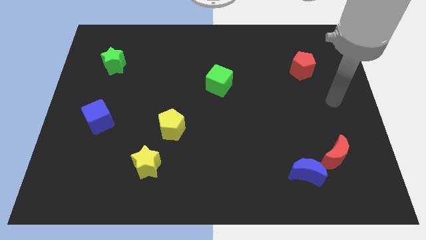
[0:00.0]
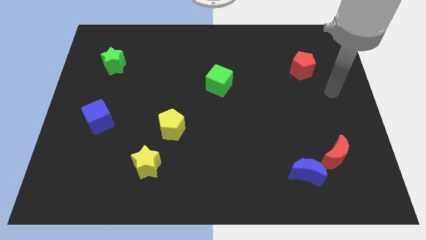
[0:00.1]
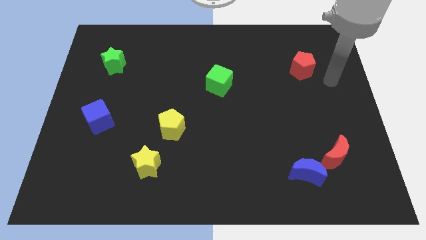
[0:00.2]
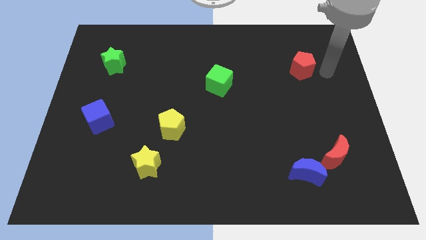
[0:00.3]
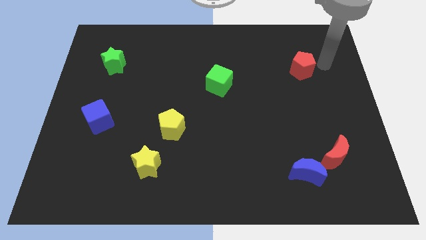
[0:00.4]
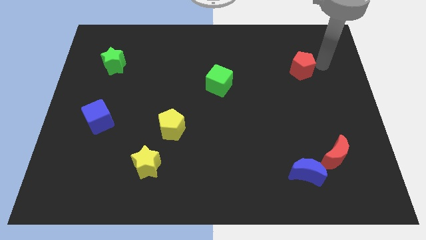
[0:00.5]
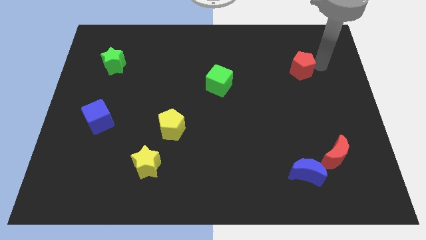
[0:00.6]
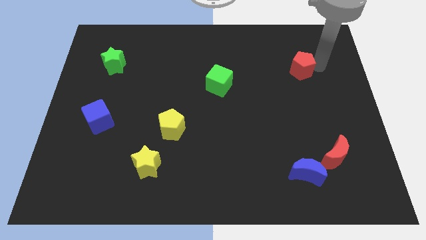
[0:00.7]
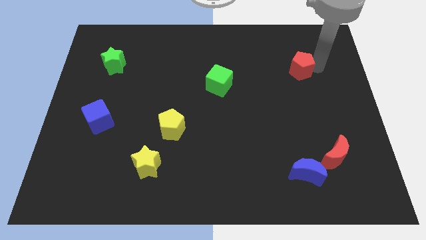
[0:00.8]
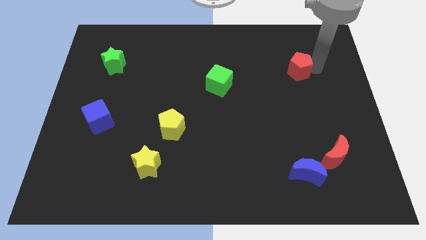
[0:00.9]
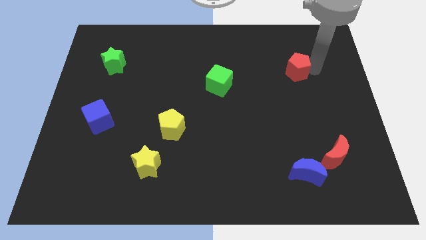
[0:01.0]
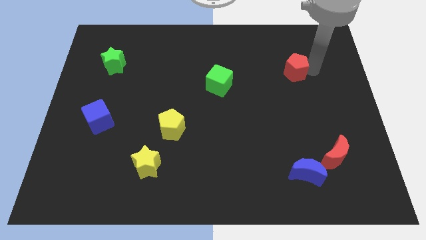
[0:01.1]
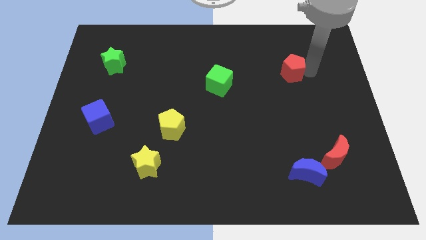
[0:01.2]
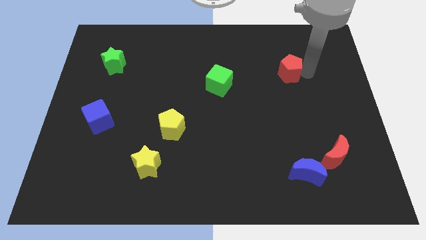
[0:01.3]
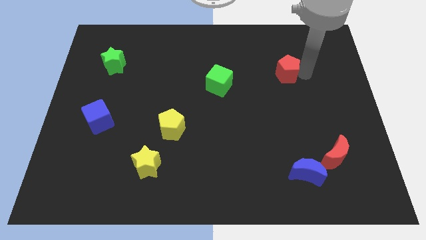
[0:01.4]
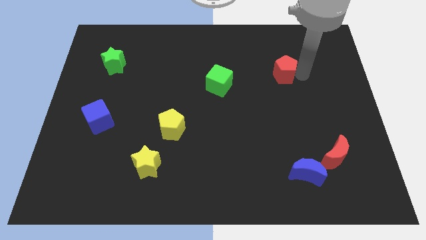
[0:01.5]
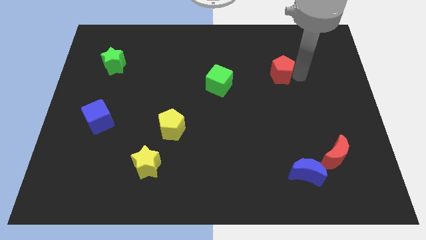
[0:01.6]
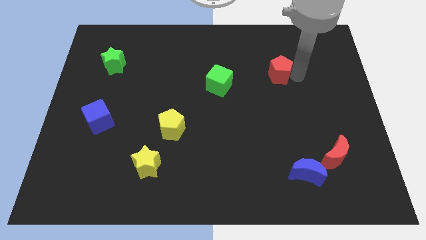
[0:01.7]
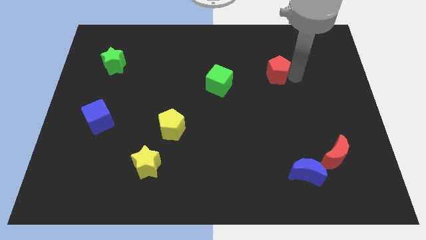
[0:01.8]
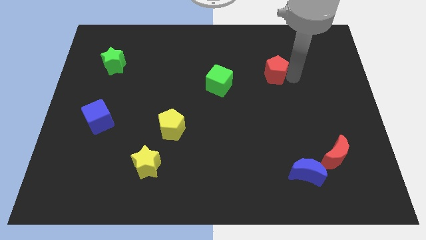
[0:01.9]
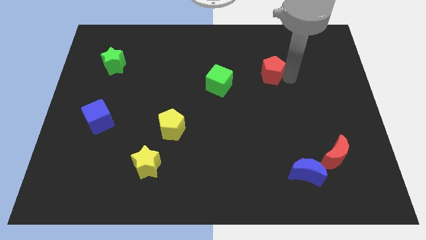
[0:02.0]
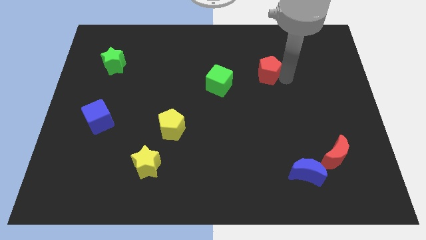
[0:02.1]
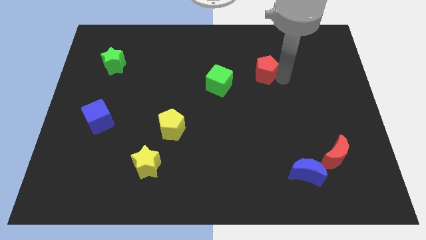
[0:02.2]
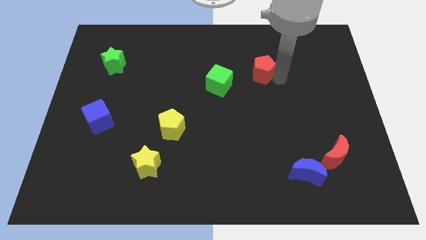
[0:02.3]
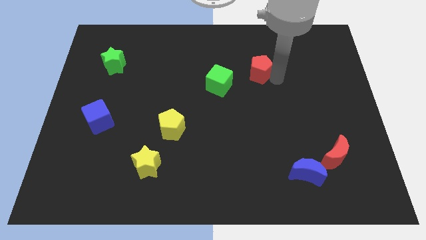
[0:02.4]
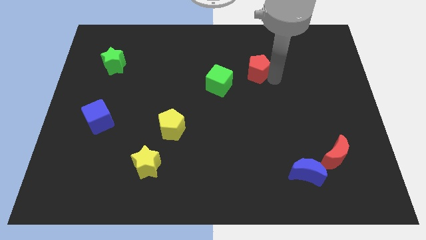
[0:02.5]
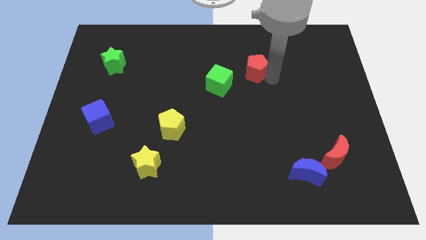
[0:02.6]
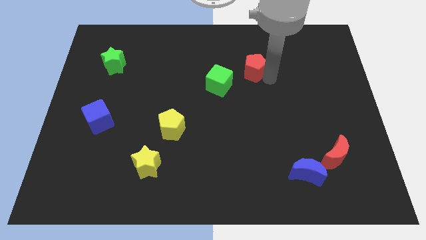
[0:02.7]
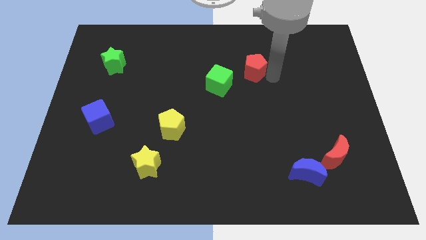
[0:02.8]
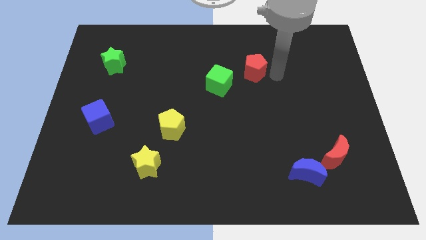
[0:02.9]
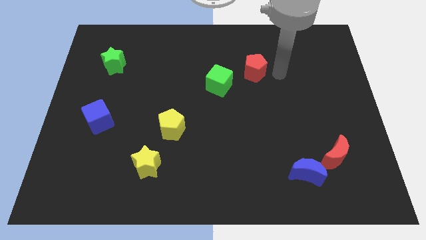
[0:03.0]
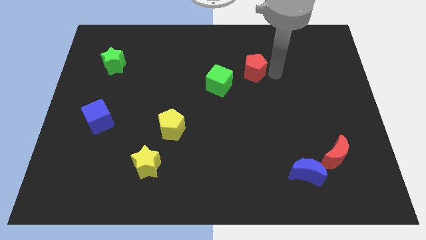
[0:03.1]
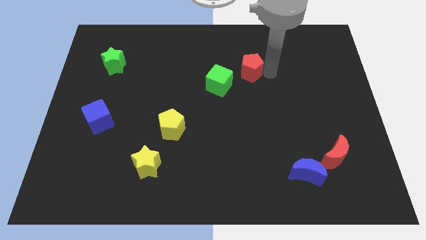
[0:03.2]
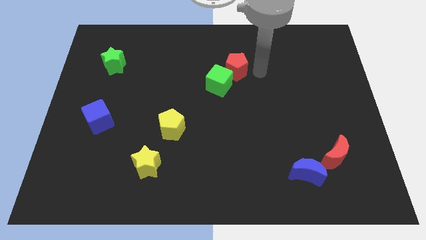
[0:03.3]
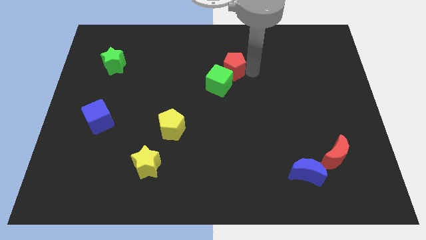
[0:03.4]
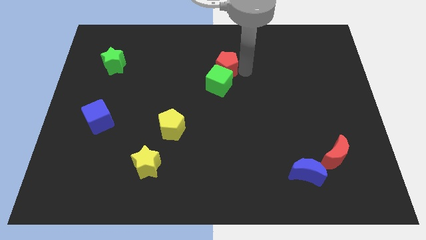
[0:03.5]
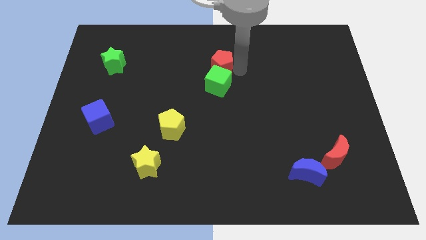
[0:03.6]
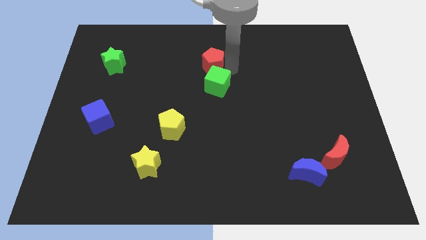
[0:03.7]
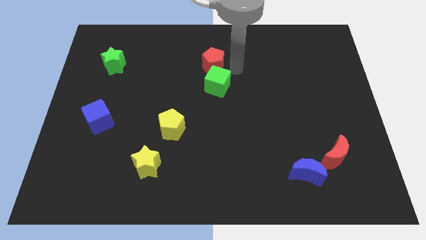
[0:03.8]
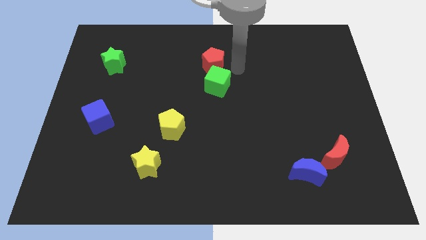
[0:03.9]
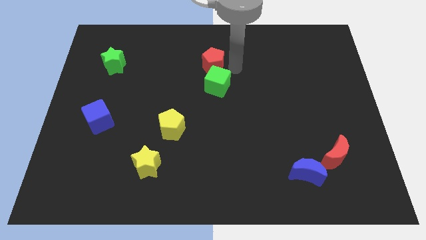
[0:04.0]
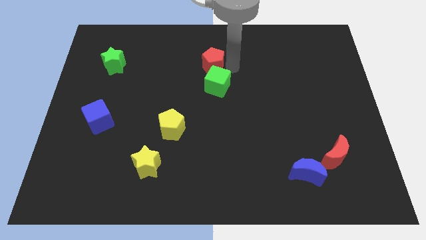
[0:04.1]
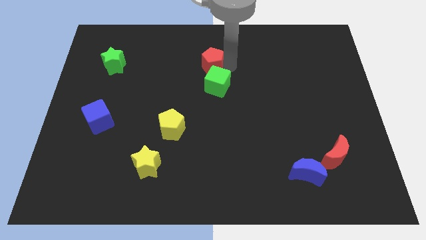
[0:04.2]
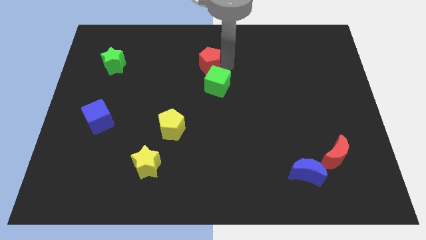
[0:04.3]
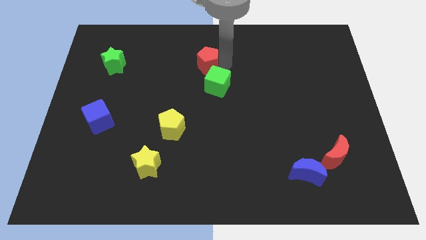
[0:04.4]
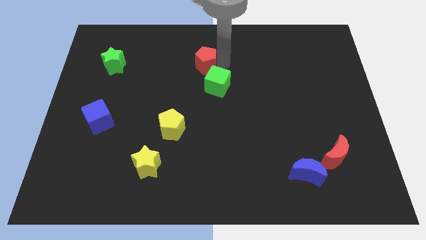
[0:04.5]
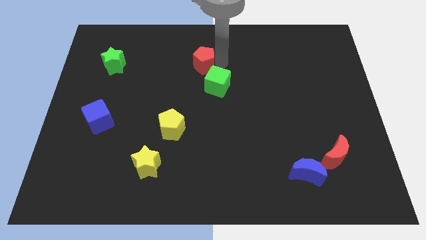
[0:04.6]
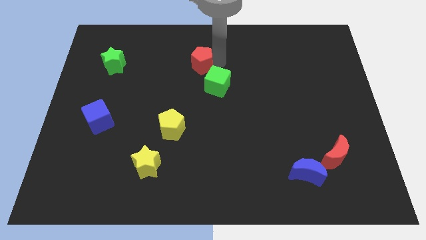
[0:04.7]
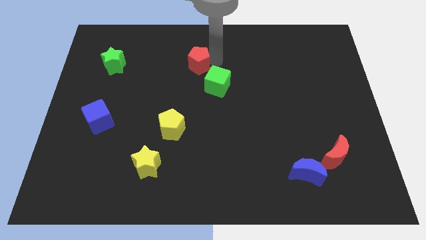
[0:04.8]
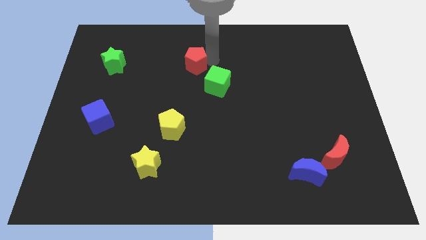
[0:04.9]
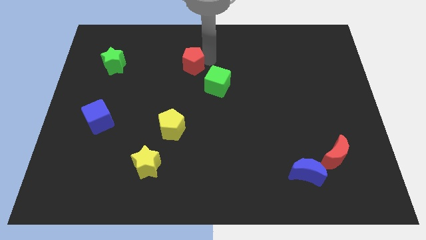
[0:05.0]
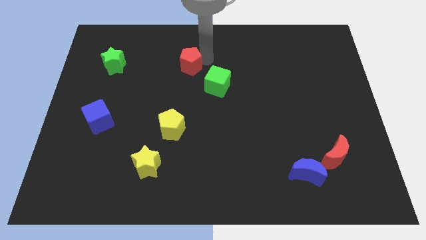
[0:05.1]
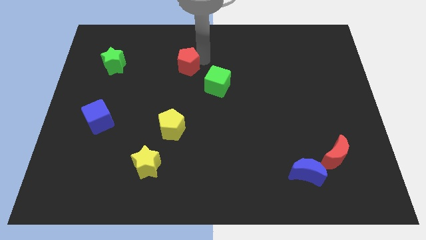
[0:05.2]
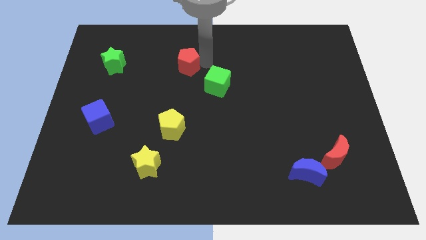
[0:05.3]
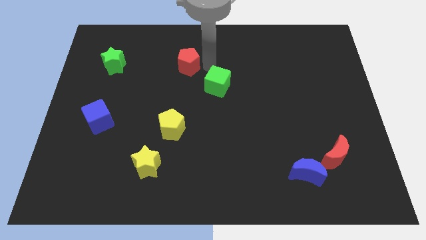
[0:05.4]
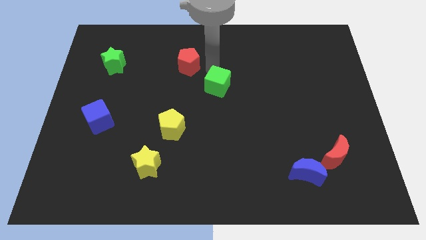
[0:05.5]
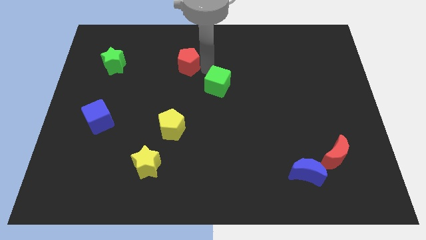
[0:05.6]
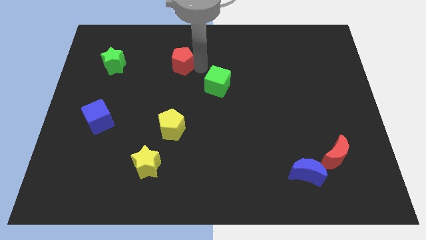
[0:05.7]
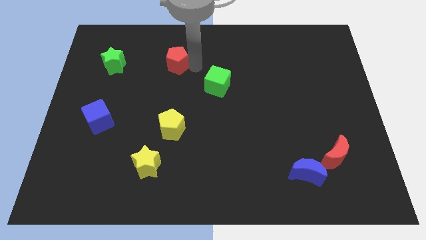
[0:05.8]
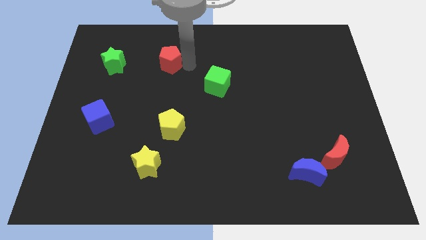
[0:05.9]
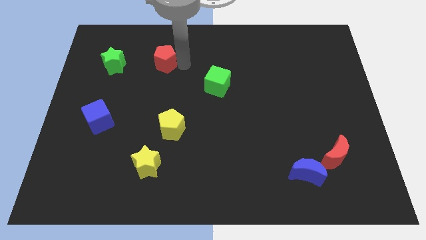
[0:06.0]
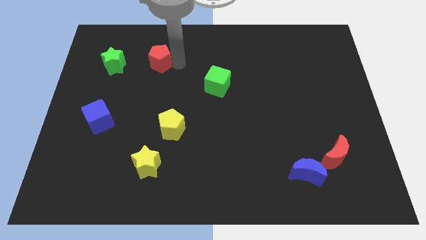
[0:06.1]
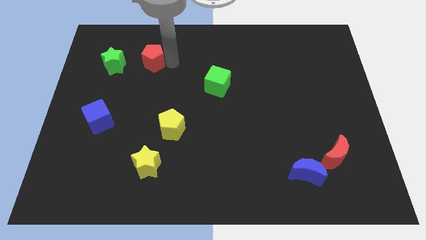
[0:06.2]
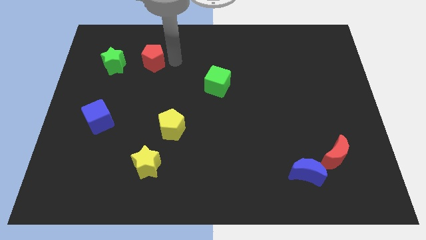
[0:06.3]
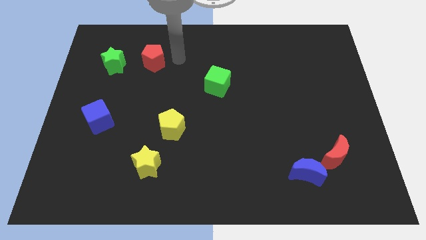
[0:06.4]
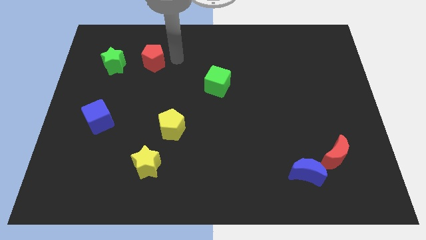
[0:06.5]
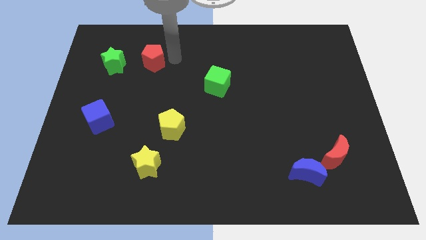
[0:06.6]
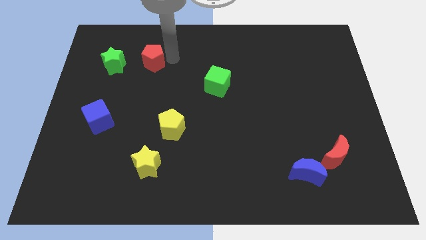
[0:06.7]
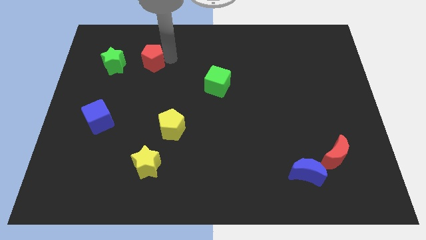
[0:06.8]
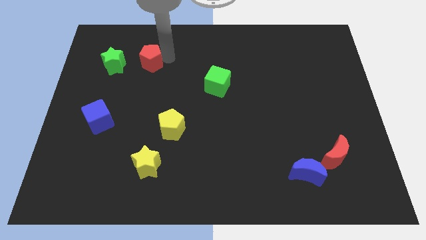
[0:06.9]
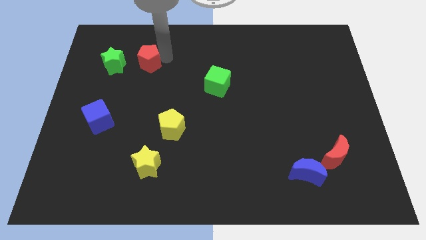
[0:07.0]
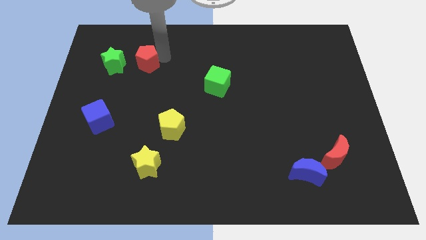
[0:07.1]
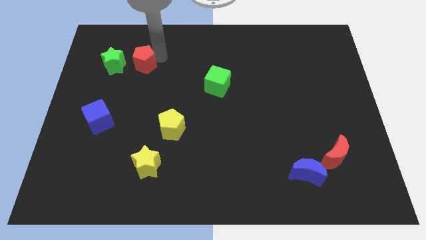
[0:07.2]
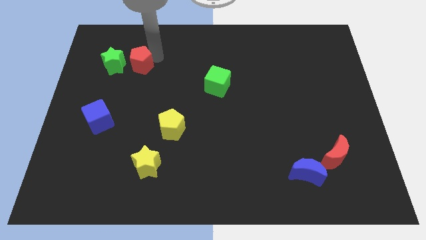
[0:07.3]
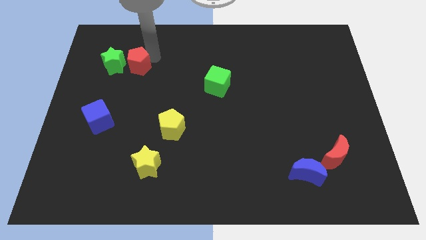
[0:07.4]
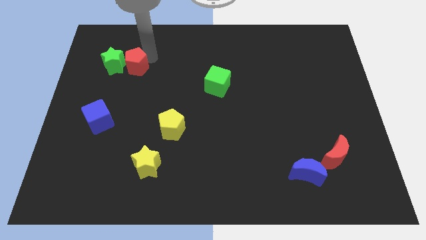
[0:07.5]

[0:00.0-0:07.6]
move the red pentagon to the green star

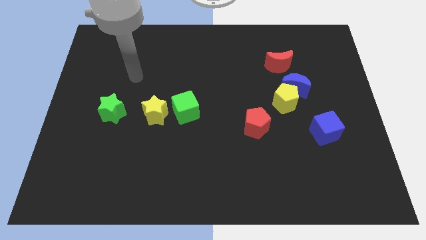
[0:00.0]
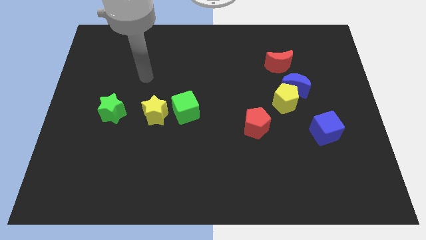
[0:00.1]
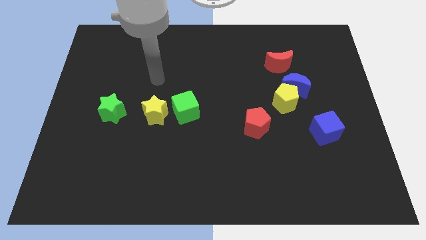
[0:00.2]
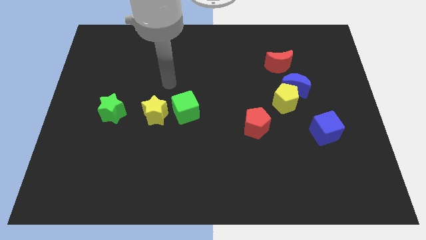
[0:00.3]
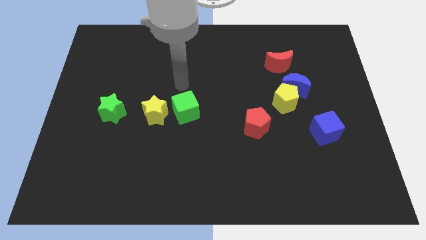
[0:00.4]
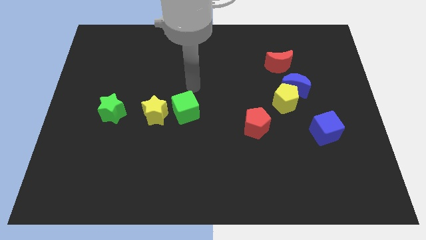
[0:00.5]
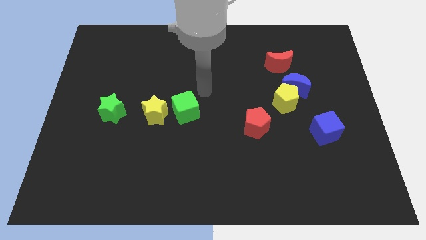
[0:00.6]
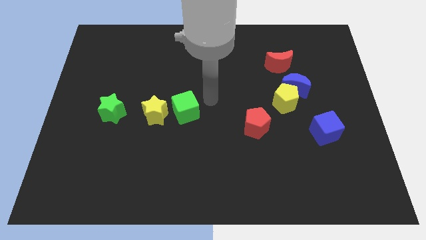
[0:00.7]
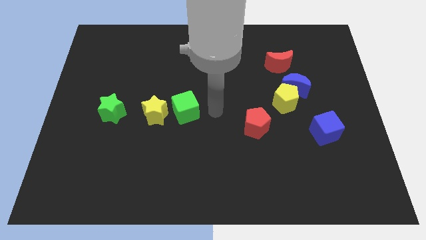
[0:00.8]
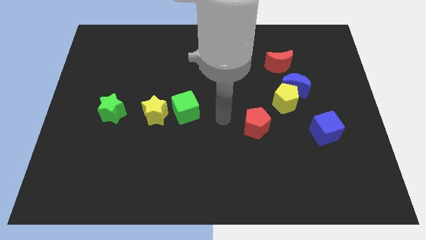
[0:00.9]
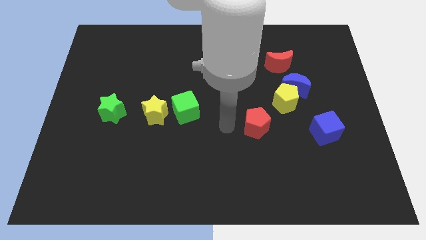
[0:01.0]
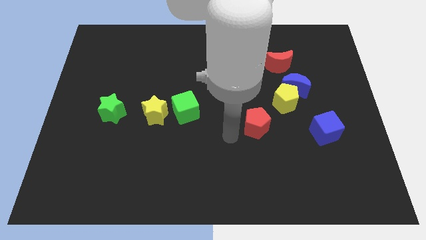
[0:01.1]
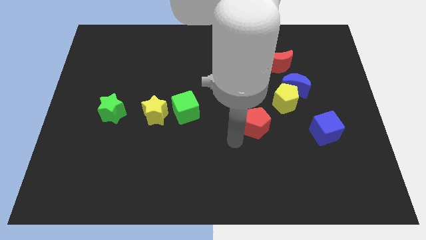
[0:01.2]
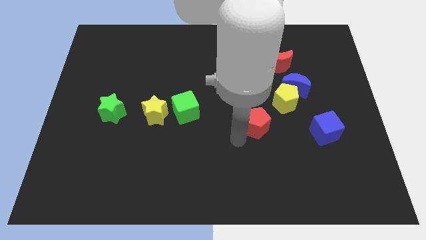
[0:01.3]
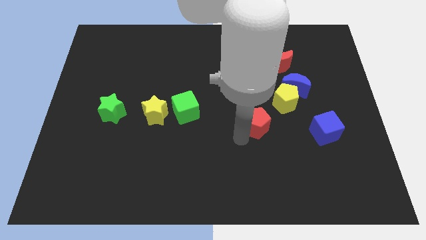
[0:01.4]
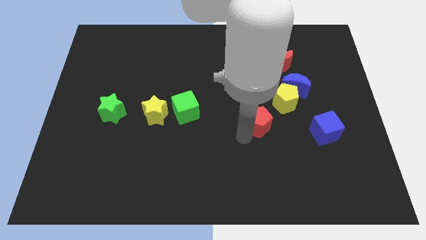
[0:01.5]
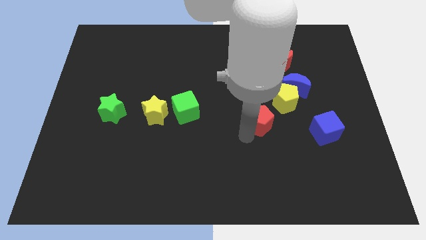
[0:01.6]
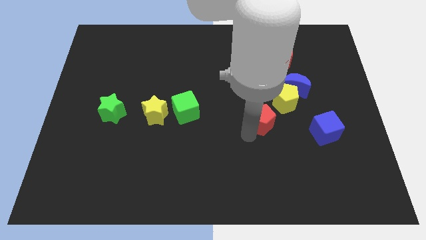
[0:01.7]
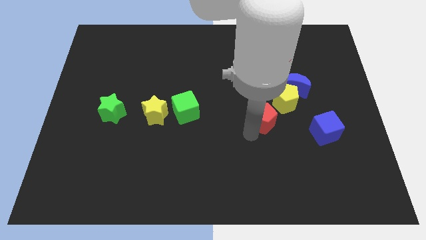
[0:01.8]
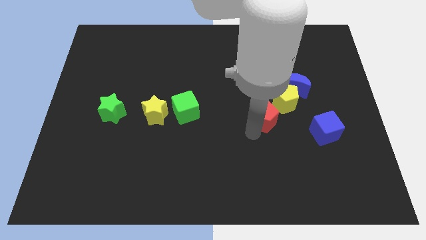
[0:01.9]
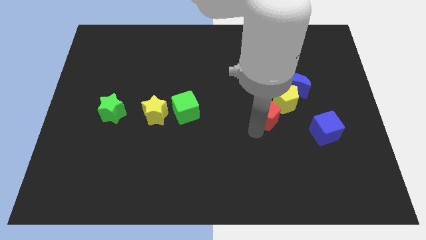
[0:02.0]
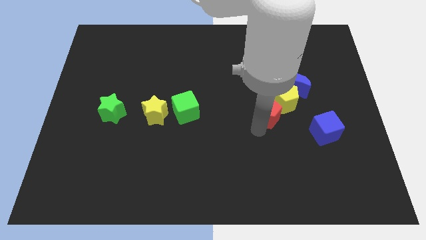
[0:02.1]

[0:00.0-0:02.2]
put the red pentagon close to the yellow pentagon
